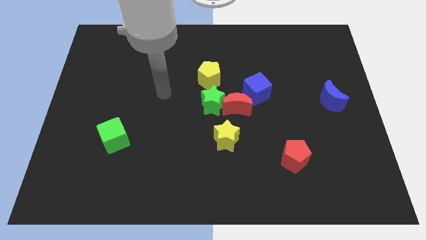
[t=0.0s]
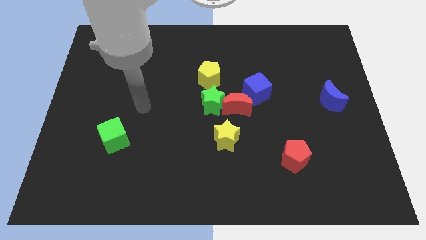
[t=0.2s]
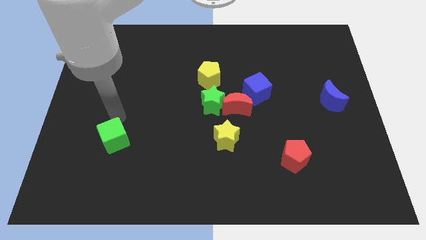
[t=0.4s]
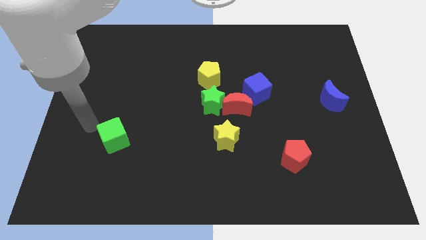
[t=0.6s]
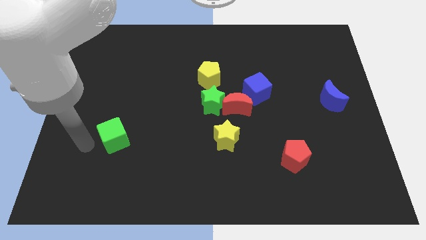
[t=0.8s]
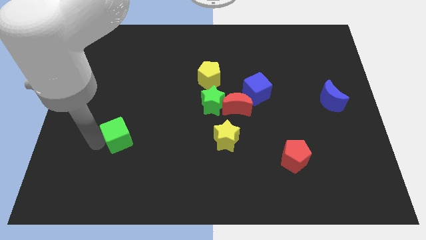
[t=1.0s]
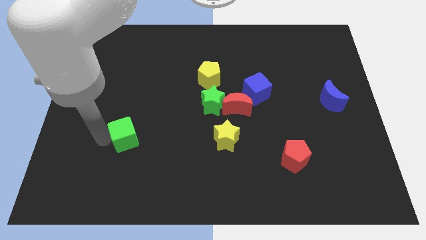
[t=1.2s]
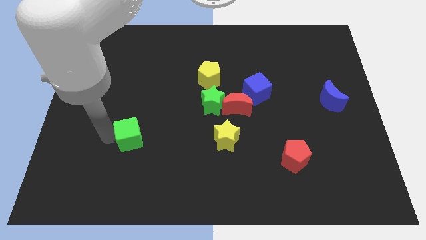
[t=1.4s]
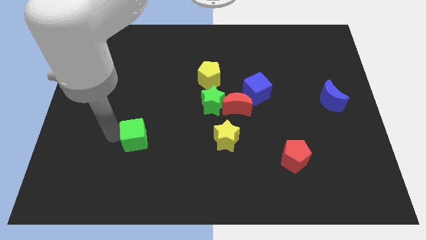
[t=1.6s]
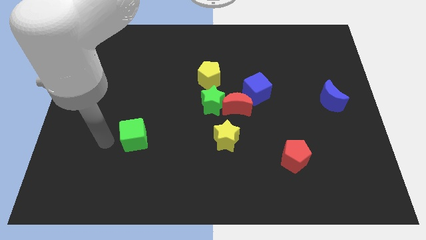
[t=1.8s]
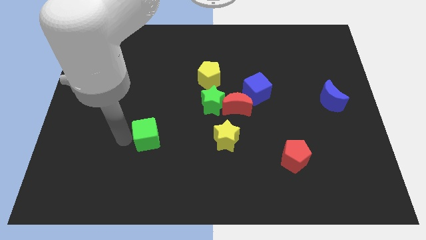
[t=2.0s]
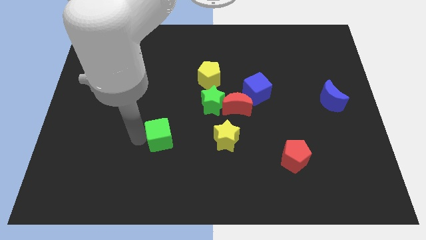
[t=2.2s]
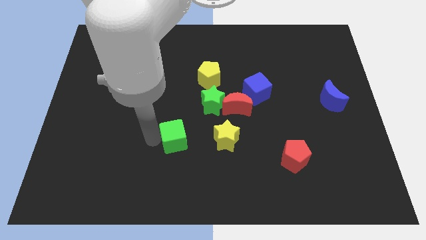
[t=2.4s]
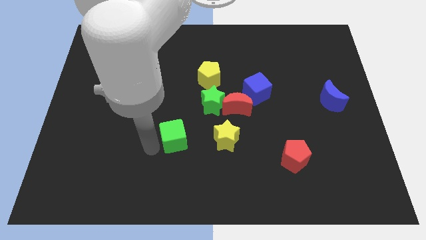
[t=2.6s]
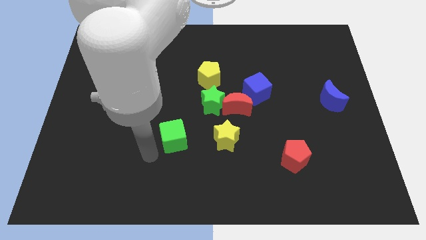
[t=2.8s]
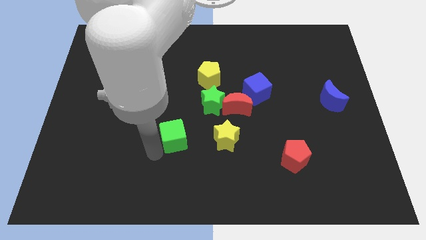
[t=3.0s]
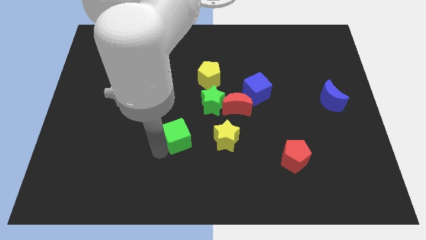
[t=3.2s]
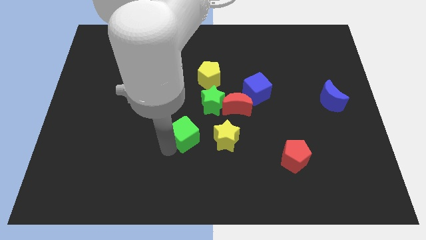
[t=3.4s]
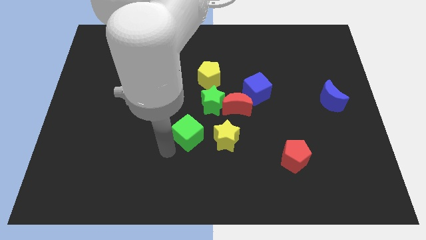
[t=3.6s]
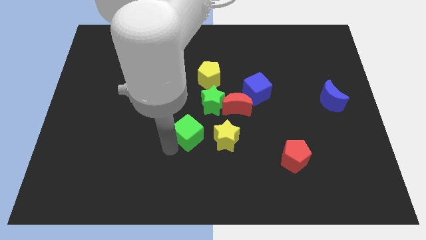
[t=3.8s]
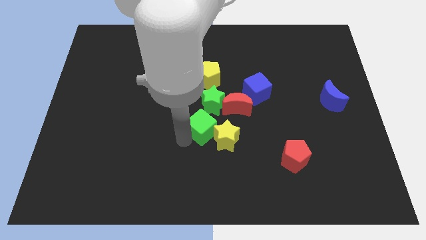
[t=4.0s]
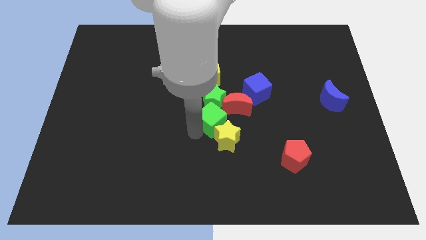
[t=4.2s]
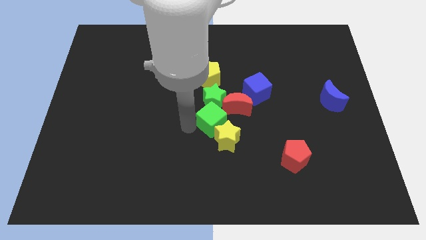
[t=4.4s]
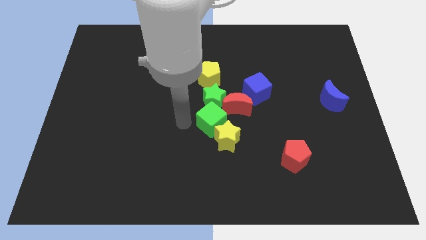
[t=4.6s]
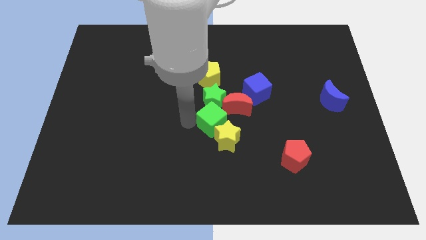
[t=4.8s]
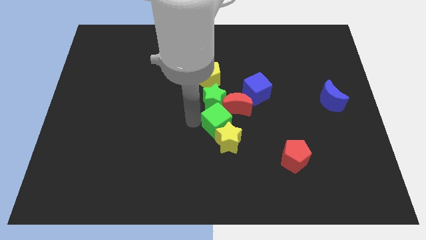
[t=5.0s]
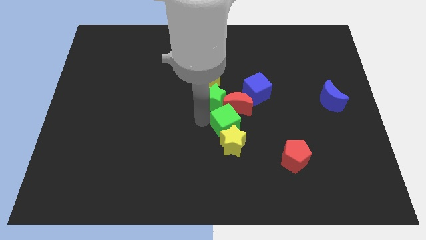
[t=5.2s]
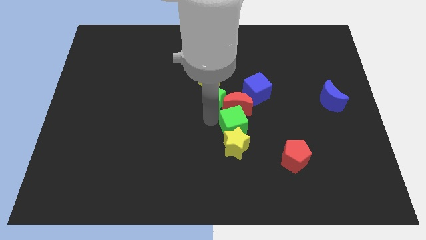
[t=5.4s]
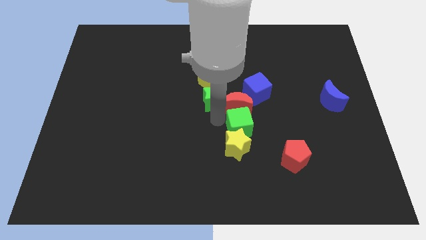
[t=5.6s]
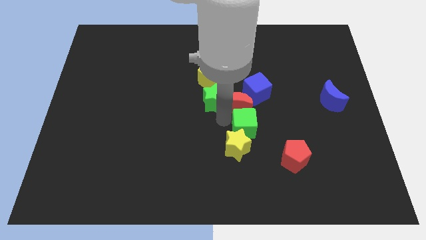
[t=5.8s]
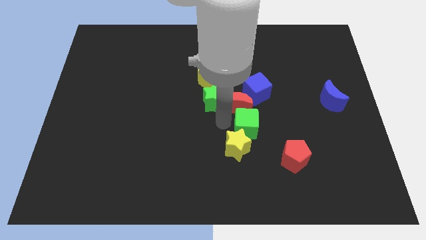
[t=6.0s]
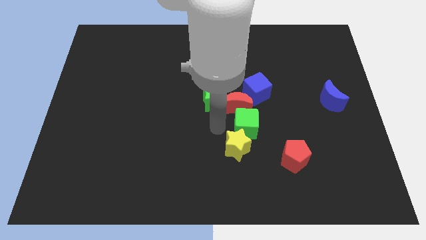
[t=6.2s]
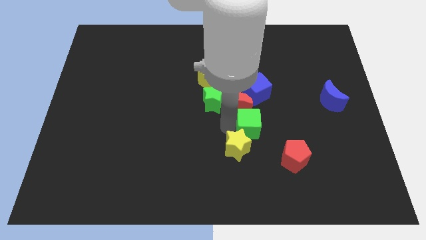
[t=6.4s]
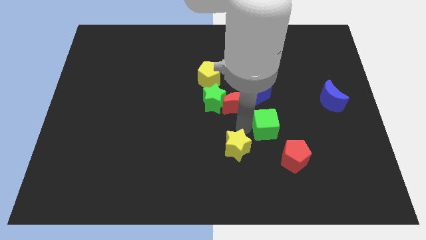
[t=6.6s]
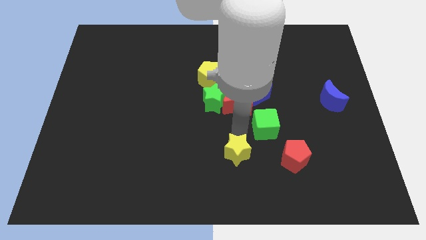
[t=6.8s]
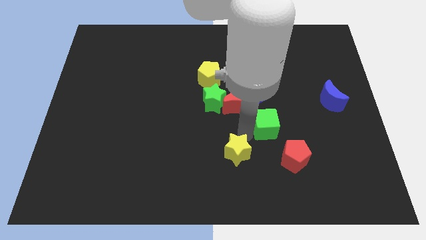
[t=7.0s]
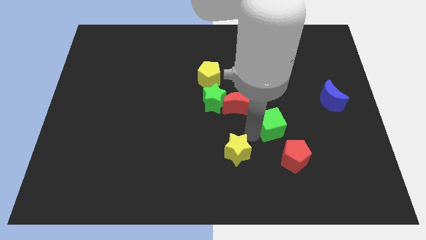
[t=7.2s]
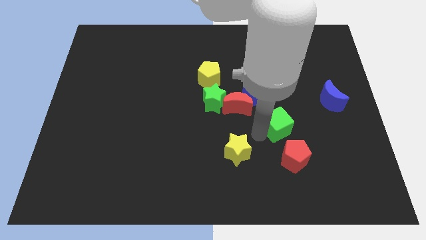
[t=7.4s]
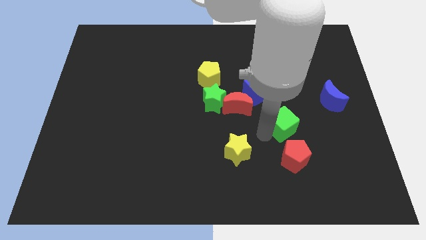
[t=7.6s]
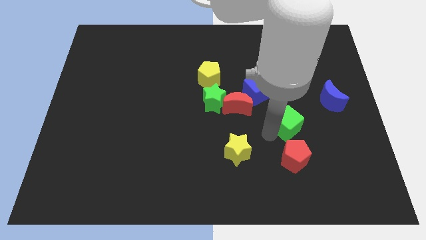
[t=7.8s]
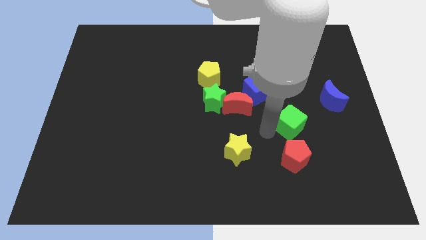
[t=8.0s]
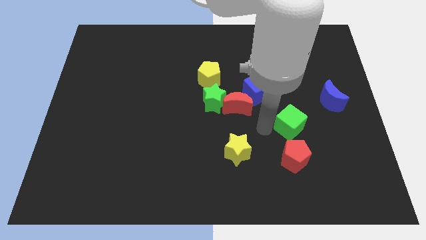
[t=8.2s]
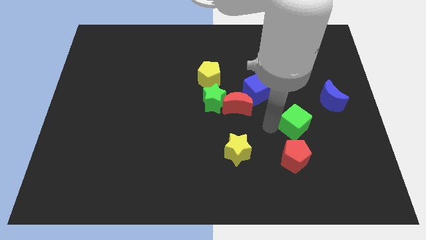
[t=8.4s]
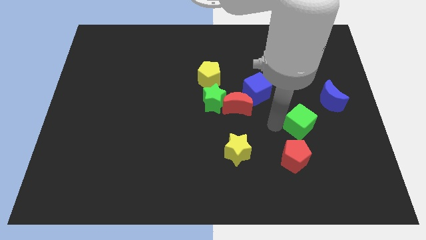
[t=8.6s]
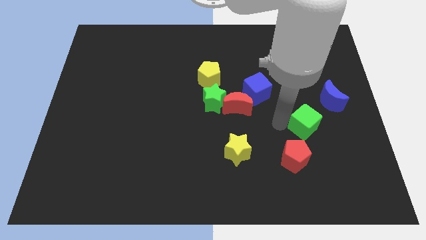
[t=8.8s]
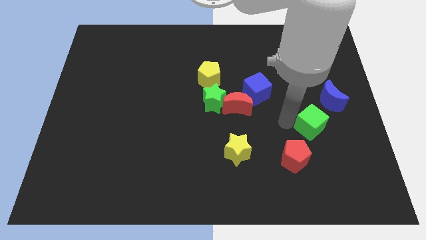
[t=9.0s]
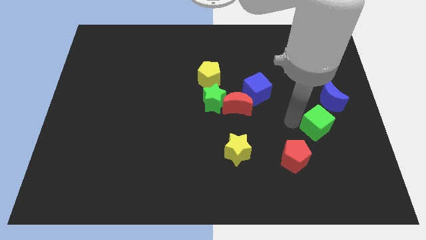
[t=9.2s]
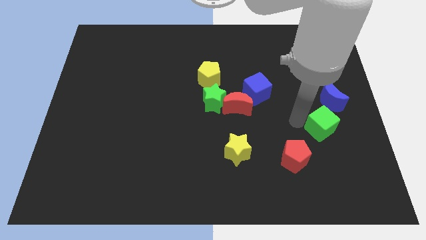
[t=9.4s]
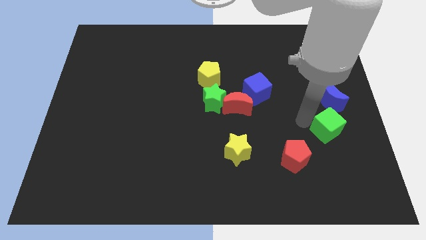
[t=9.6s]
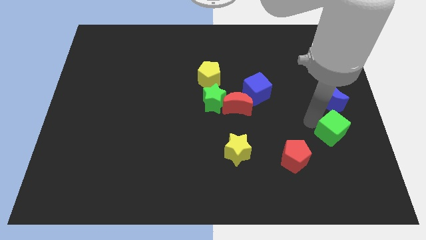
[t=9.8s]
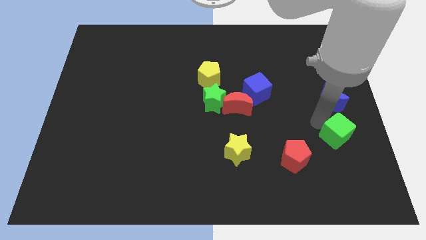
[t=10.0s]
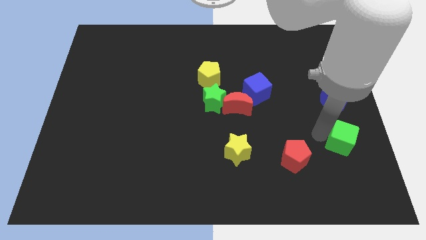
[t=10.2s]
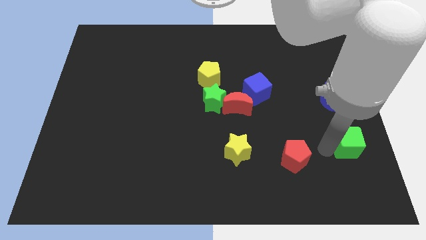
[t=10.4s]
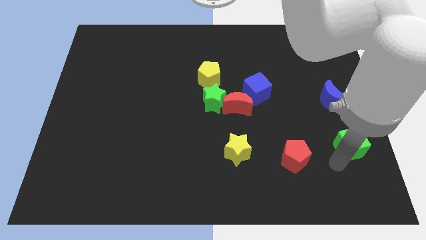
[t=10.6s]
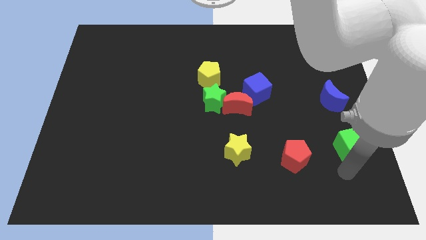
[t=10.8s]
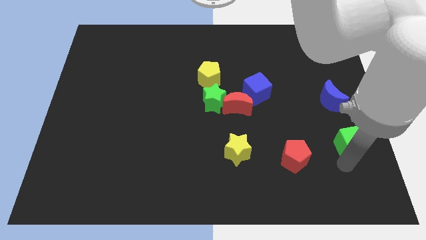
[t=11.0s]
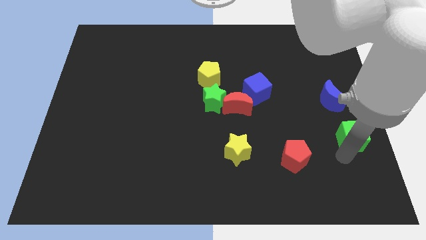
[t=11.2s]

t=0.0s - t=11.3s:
slide the green cube to the right side

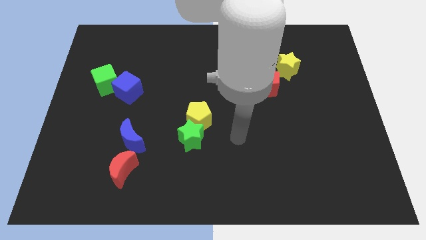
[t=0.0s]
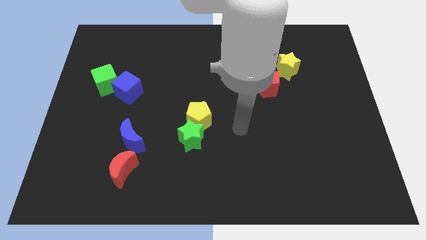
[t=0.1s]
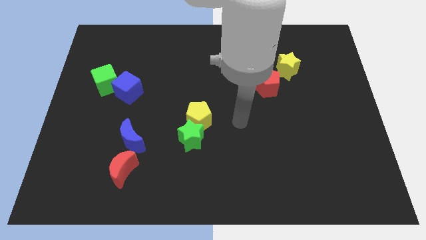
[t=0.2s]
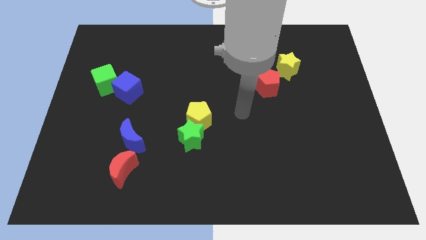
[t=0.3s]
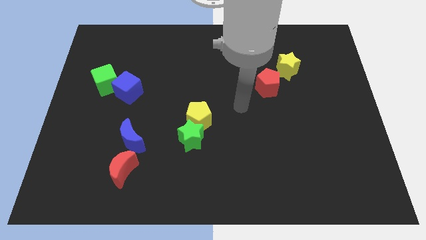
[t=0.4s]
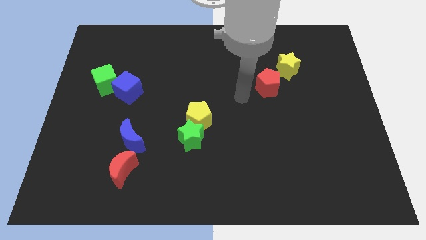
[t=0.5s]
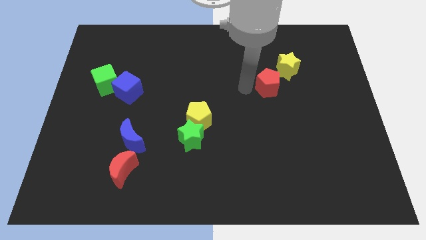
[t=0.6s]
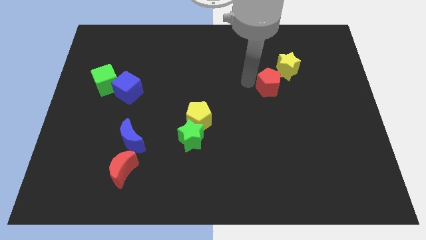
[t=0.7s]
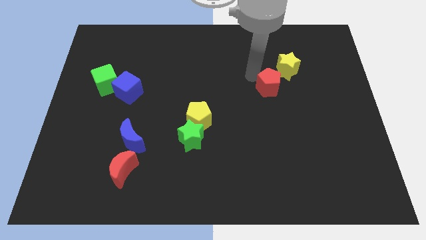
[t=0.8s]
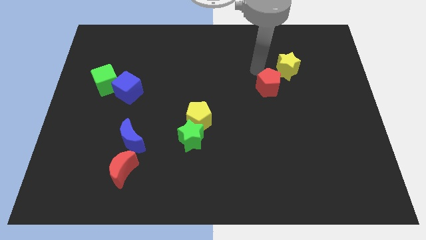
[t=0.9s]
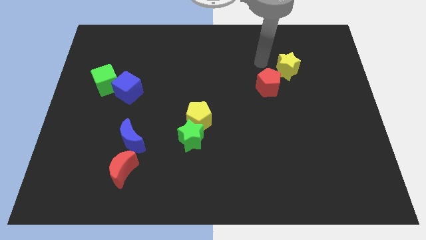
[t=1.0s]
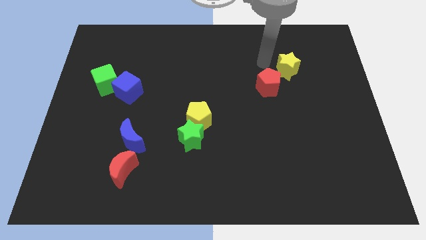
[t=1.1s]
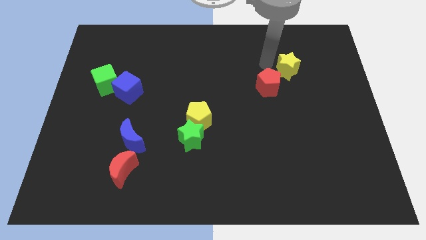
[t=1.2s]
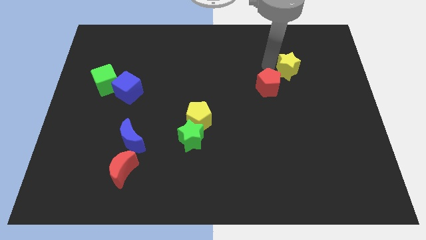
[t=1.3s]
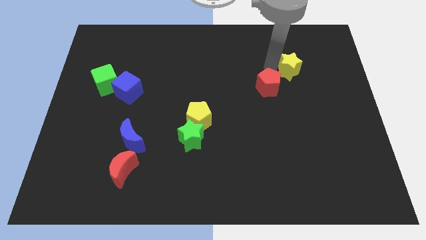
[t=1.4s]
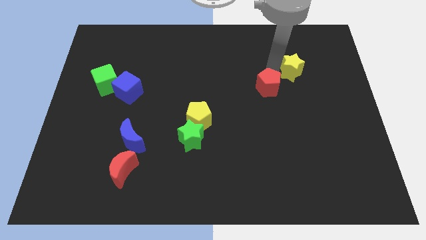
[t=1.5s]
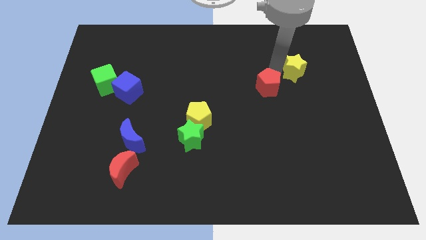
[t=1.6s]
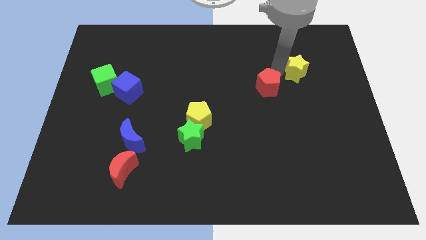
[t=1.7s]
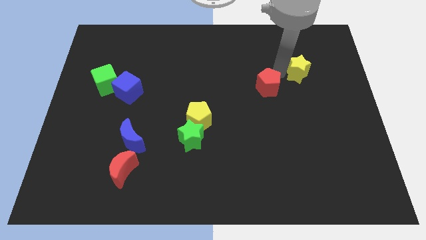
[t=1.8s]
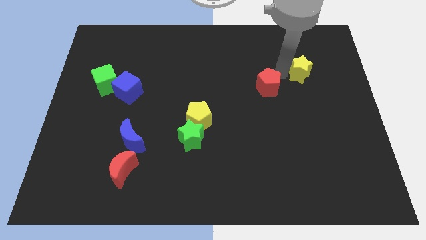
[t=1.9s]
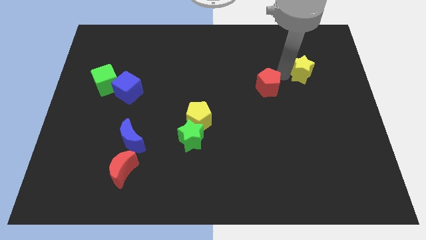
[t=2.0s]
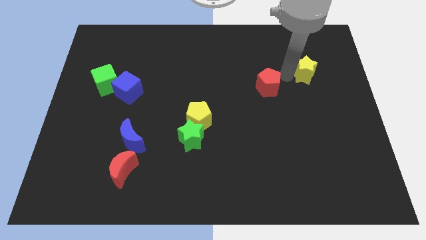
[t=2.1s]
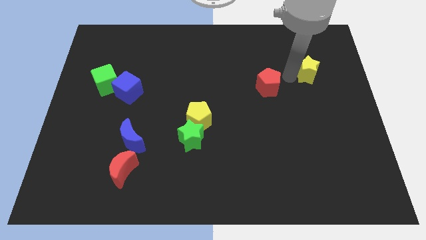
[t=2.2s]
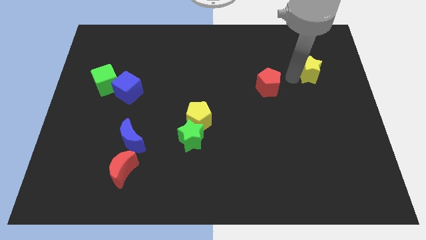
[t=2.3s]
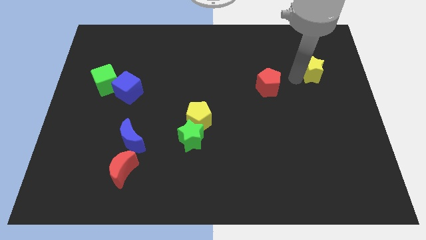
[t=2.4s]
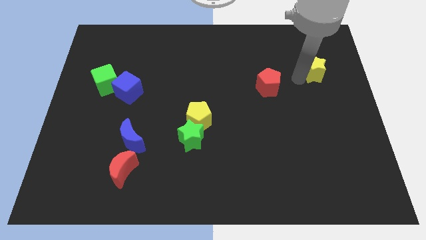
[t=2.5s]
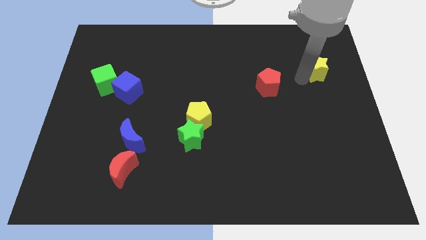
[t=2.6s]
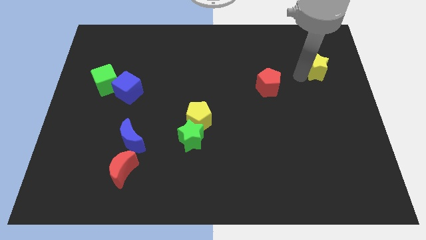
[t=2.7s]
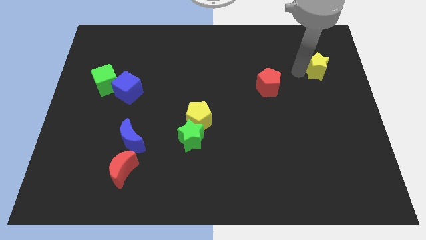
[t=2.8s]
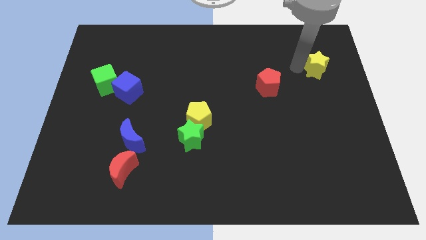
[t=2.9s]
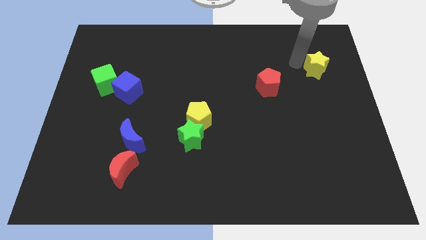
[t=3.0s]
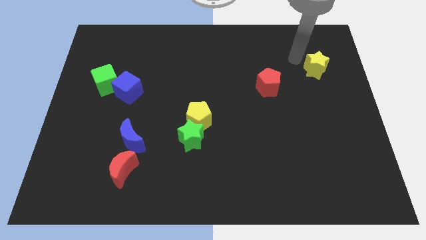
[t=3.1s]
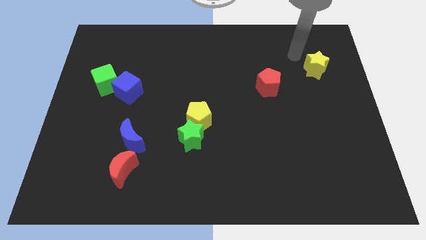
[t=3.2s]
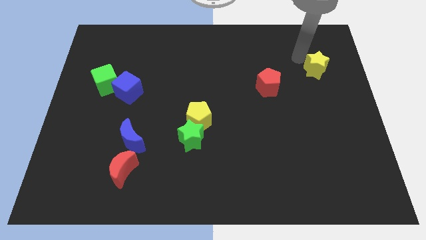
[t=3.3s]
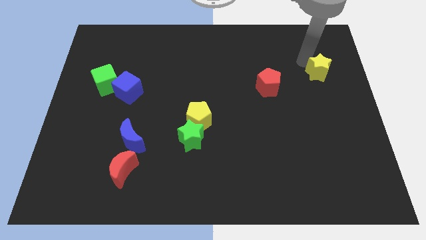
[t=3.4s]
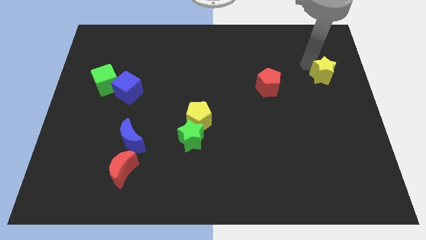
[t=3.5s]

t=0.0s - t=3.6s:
move the yellow star to the right side of the board
